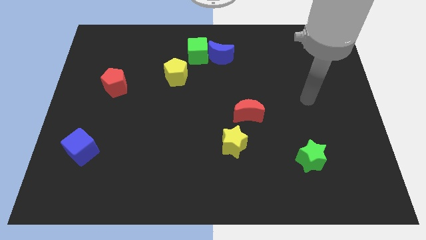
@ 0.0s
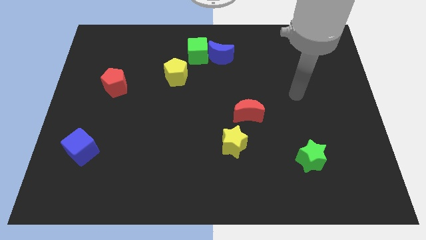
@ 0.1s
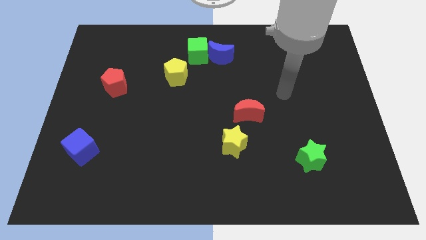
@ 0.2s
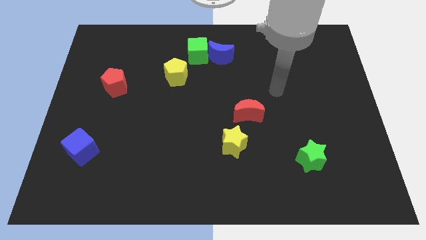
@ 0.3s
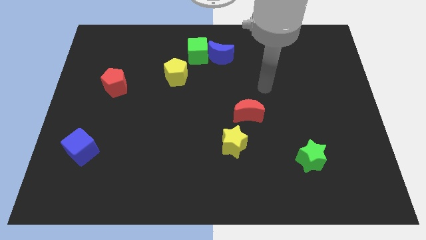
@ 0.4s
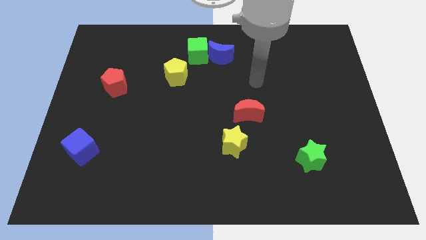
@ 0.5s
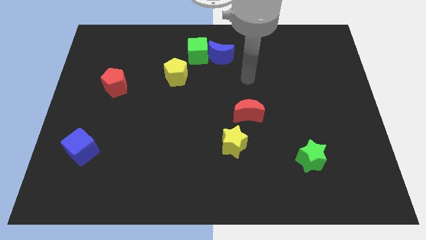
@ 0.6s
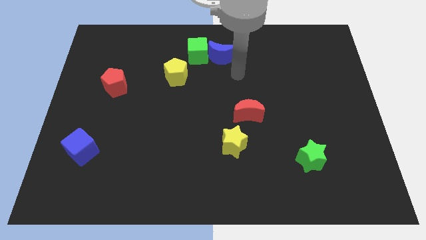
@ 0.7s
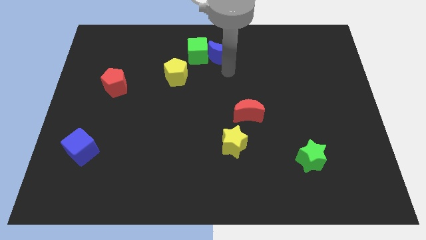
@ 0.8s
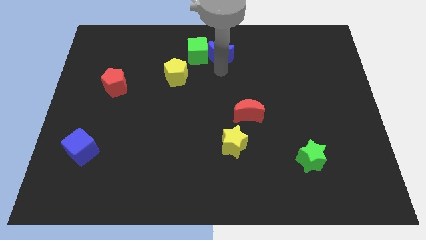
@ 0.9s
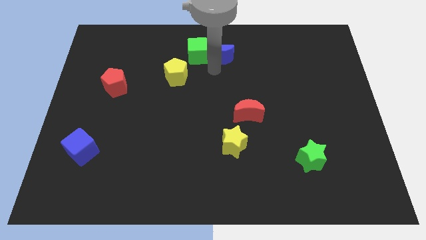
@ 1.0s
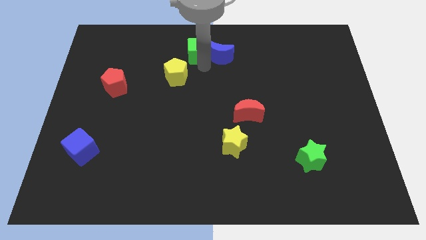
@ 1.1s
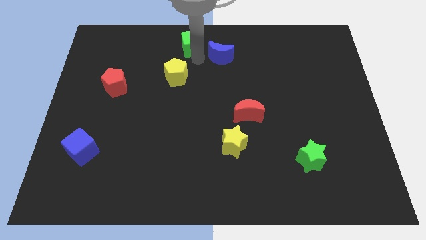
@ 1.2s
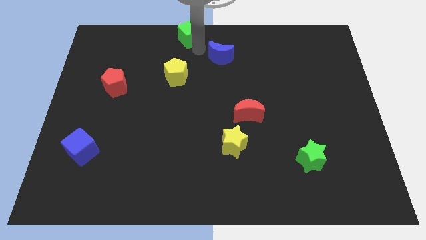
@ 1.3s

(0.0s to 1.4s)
pull the blue moon apart from the green cube

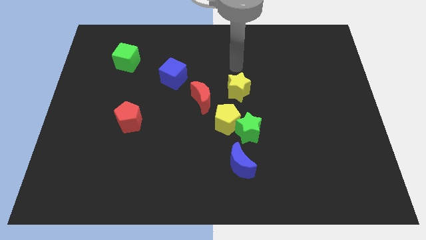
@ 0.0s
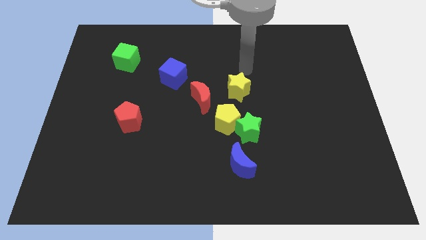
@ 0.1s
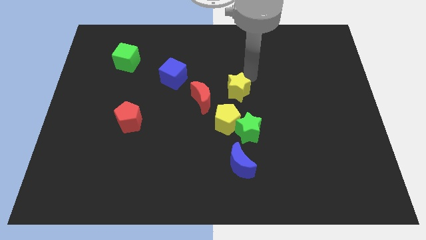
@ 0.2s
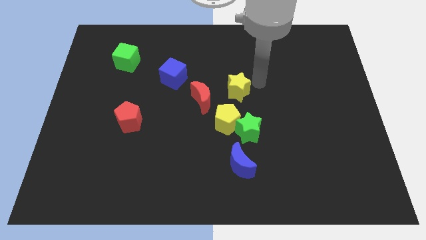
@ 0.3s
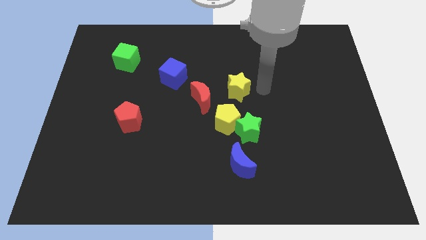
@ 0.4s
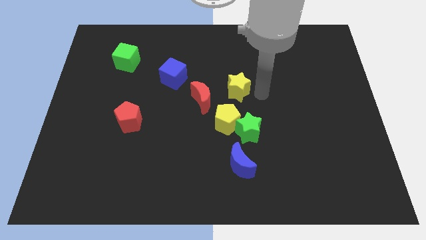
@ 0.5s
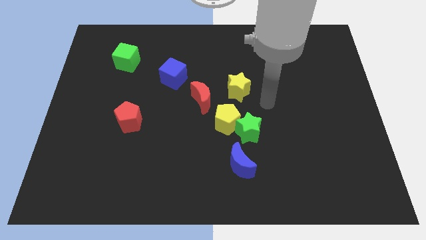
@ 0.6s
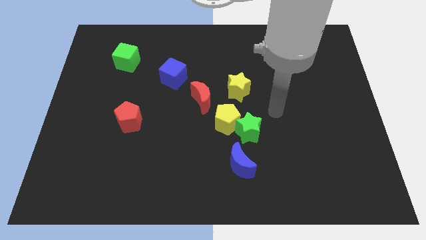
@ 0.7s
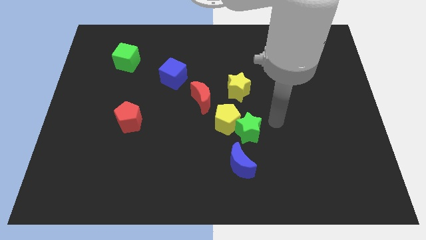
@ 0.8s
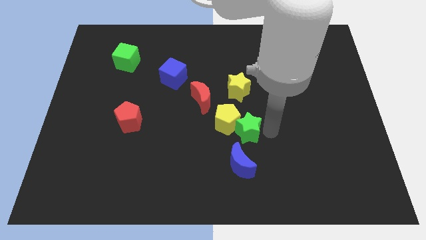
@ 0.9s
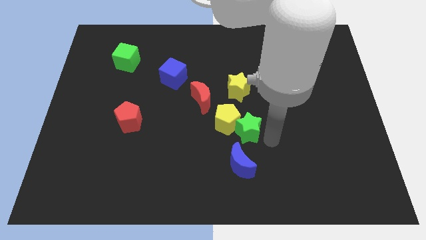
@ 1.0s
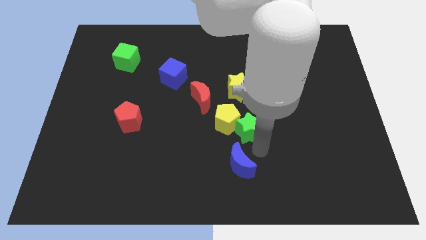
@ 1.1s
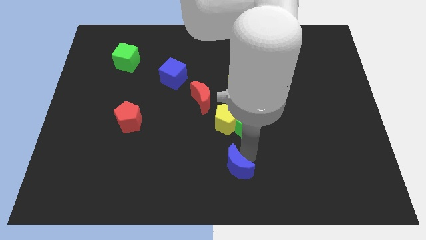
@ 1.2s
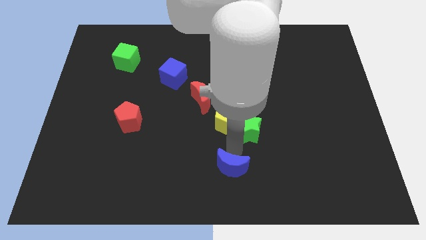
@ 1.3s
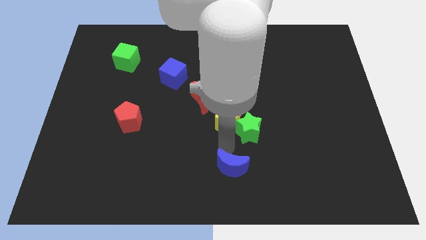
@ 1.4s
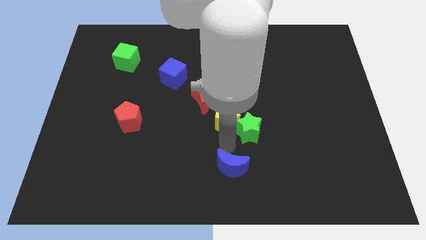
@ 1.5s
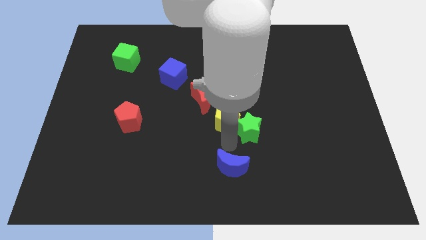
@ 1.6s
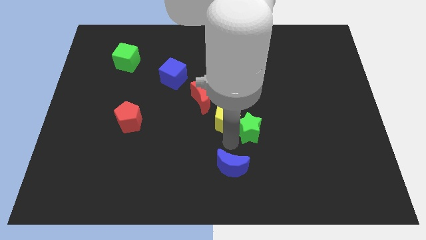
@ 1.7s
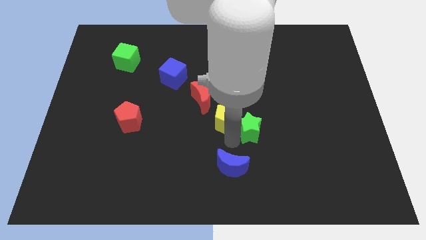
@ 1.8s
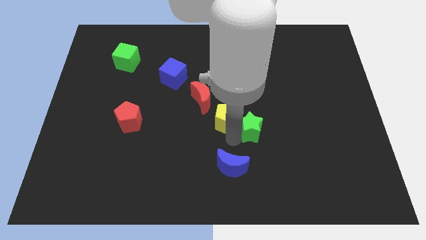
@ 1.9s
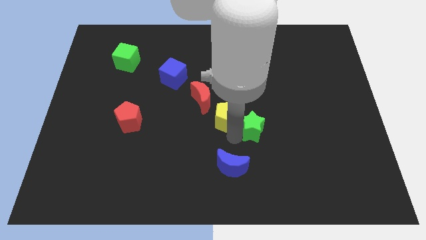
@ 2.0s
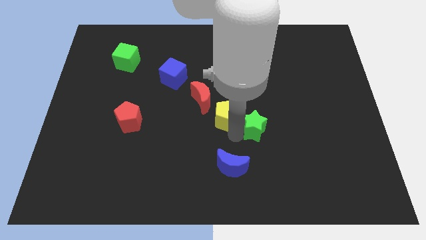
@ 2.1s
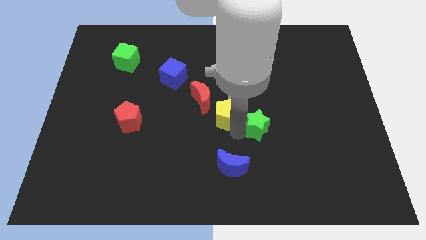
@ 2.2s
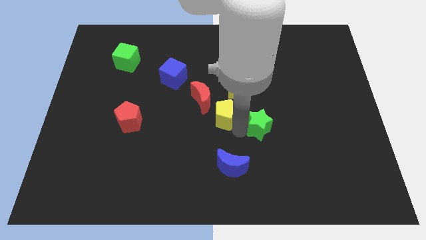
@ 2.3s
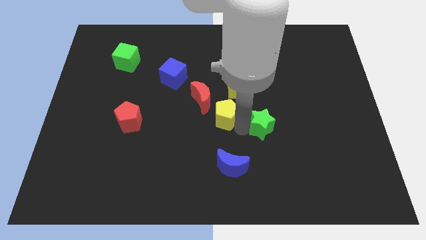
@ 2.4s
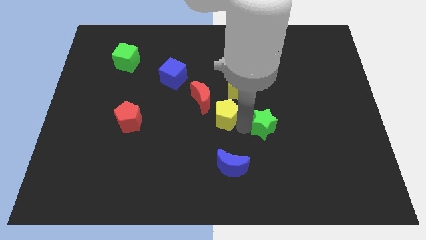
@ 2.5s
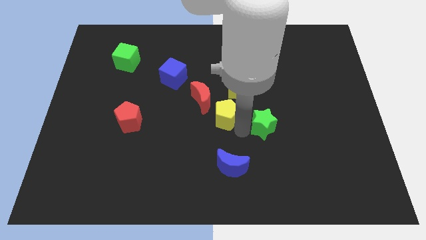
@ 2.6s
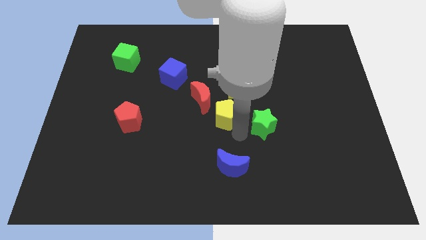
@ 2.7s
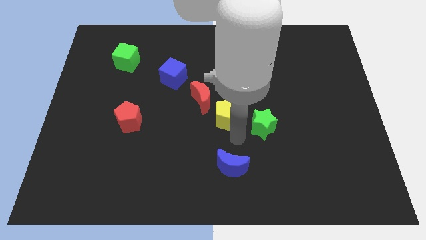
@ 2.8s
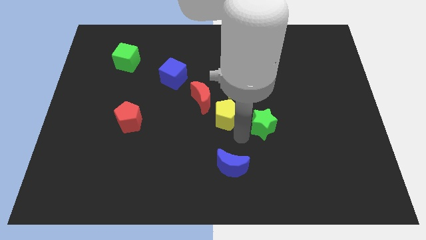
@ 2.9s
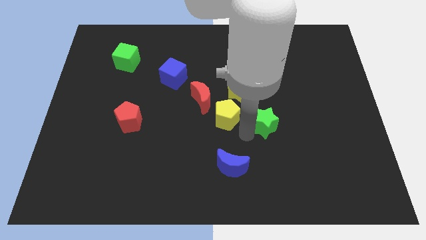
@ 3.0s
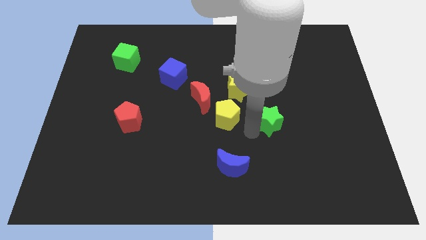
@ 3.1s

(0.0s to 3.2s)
pull the green star apart from the yellow pentagon and blue moon

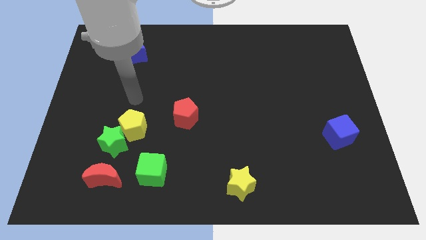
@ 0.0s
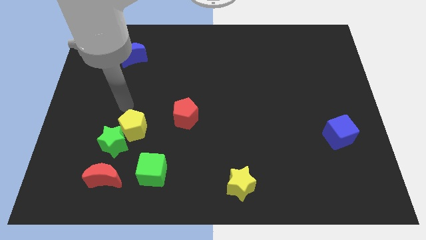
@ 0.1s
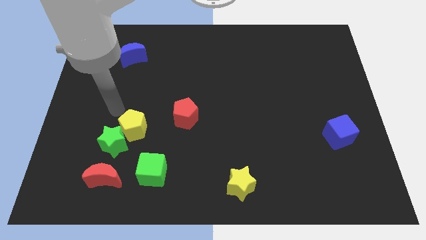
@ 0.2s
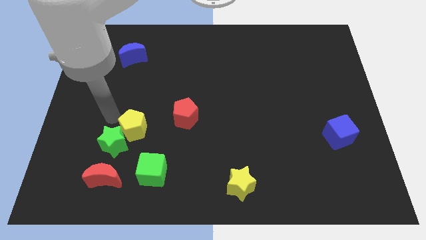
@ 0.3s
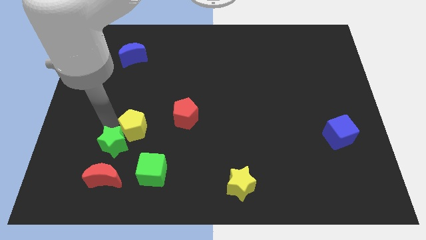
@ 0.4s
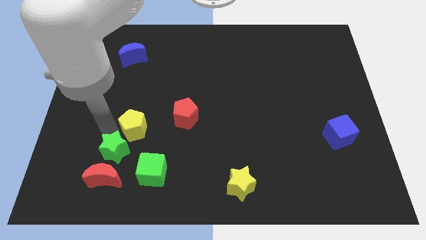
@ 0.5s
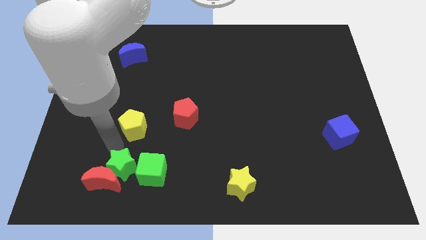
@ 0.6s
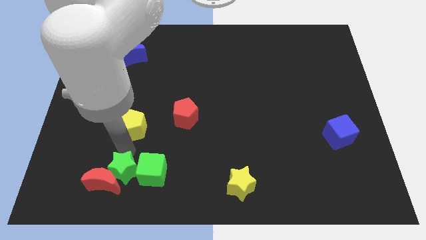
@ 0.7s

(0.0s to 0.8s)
separate the yellow pentagon from the green star

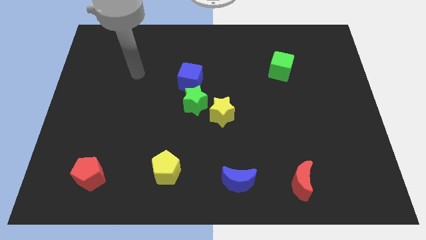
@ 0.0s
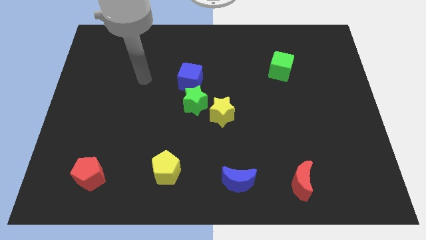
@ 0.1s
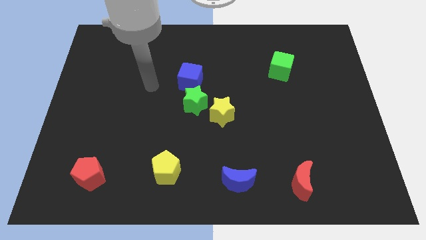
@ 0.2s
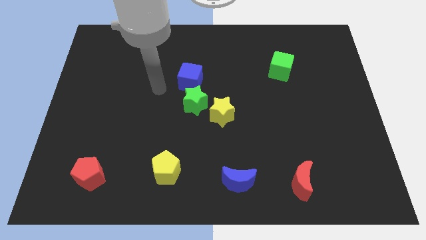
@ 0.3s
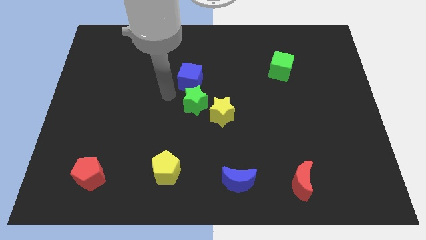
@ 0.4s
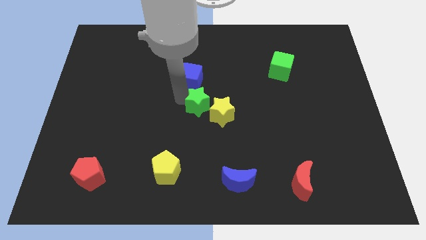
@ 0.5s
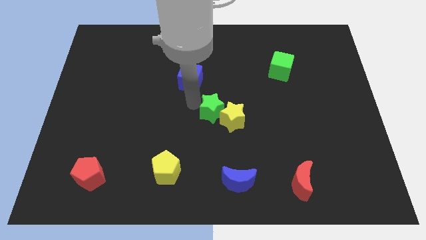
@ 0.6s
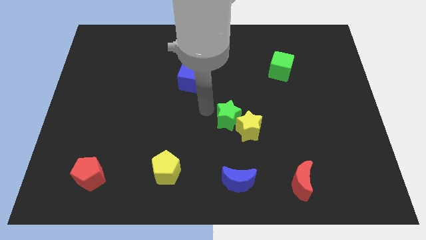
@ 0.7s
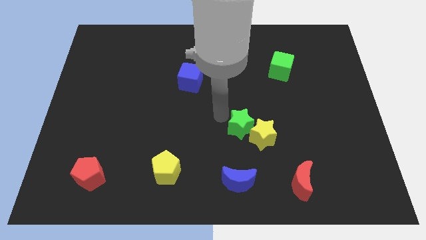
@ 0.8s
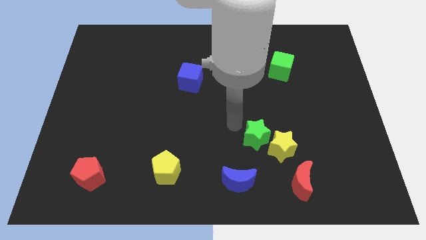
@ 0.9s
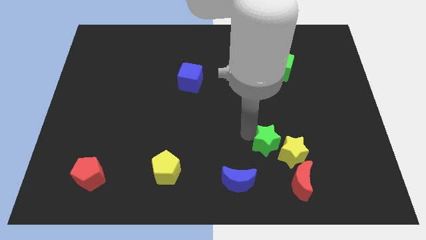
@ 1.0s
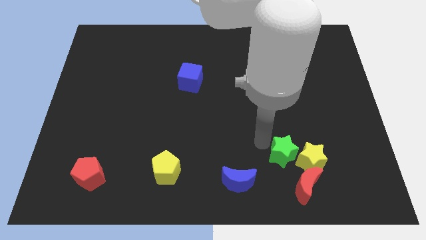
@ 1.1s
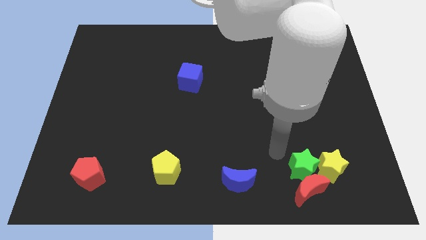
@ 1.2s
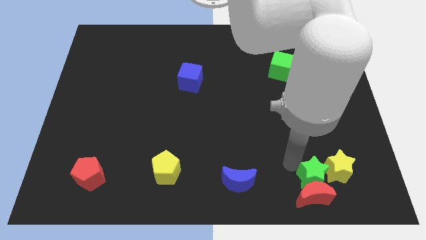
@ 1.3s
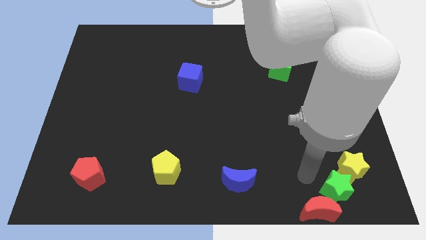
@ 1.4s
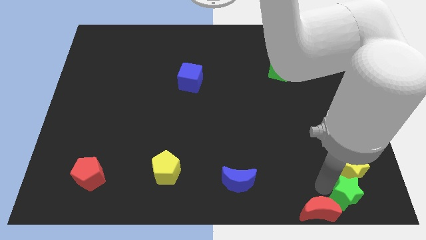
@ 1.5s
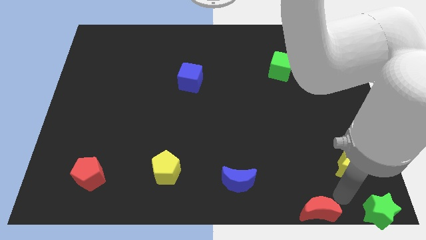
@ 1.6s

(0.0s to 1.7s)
move the yellow star away from the green star

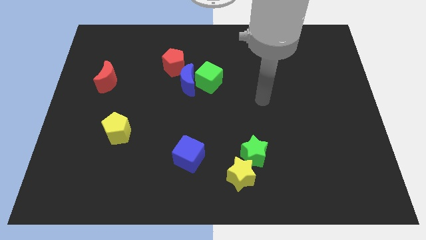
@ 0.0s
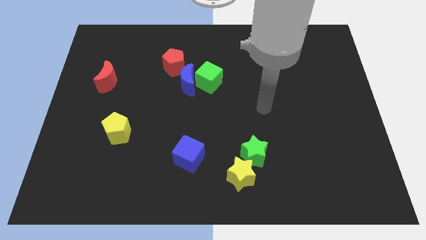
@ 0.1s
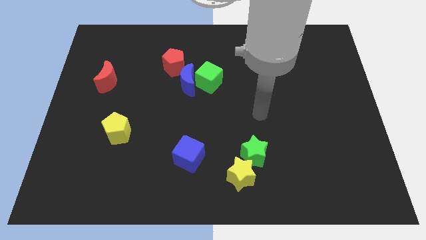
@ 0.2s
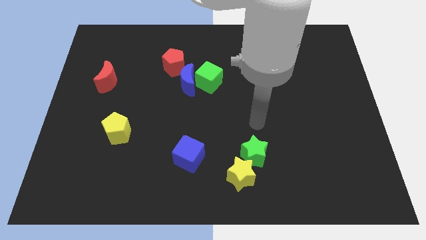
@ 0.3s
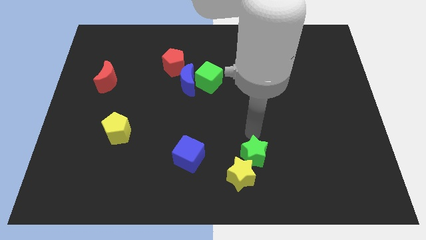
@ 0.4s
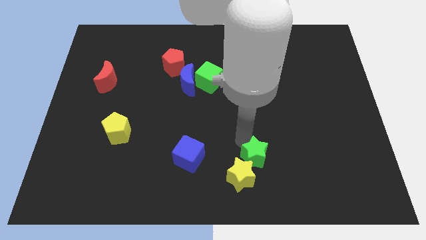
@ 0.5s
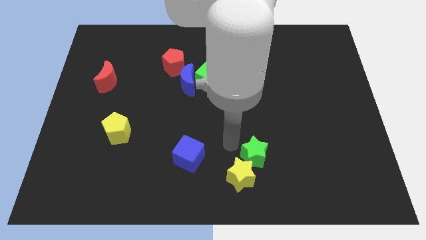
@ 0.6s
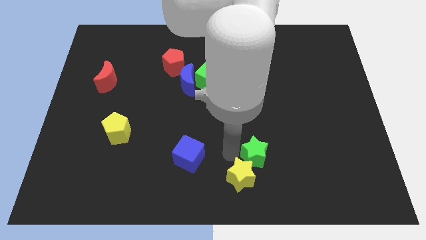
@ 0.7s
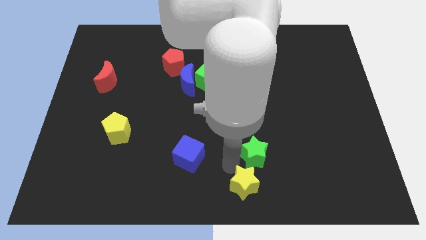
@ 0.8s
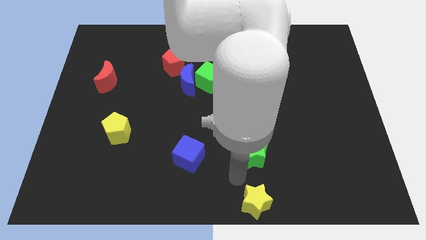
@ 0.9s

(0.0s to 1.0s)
move the green star away from the yellow star

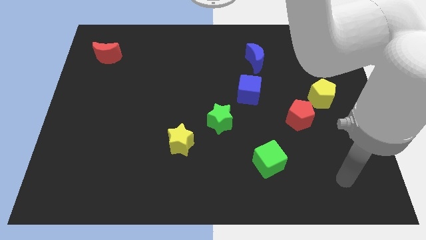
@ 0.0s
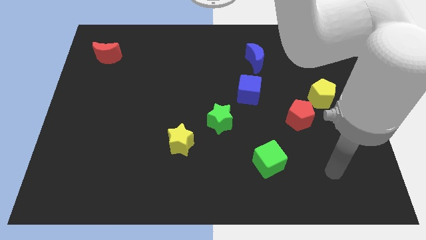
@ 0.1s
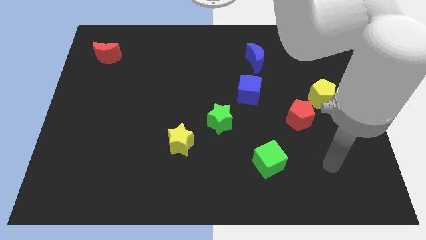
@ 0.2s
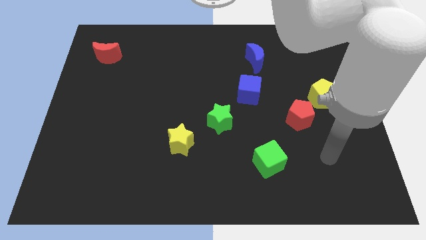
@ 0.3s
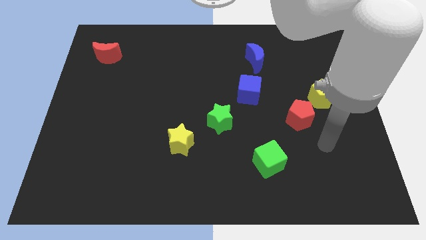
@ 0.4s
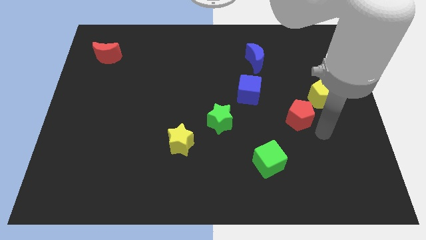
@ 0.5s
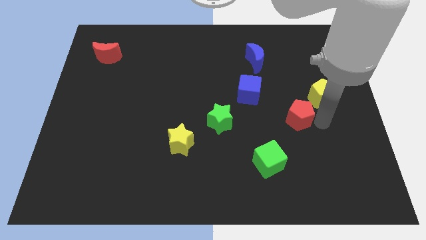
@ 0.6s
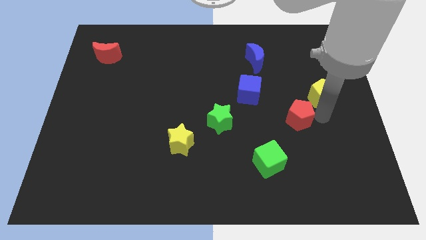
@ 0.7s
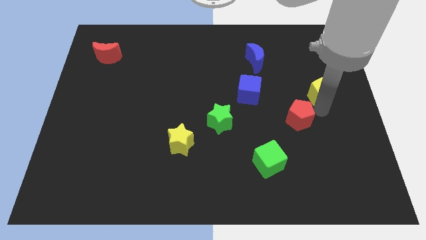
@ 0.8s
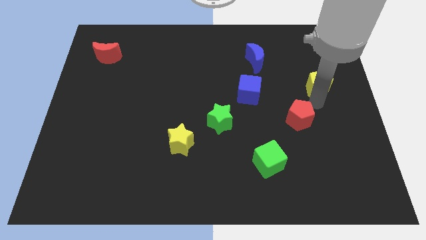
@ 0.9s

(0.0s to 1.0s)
move the red pentagon away from the yellow pentagon
